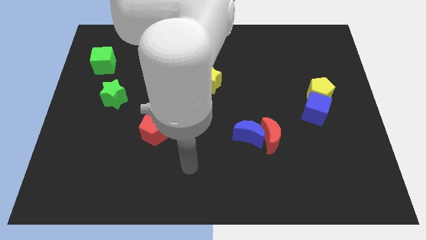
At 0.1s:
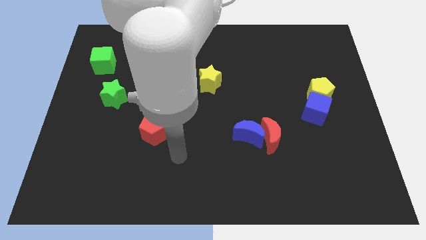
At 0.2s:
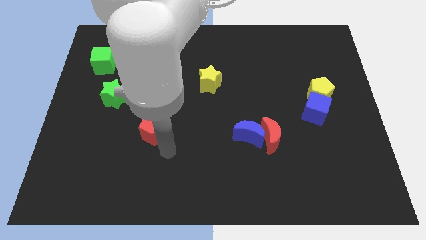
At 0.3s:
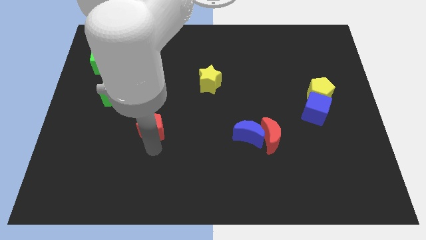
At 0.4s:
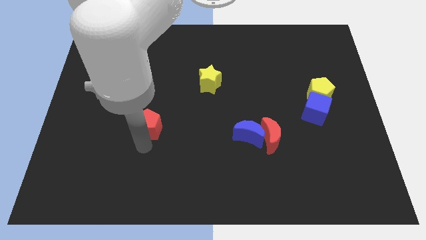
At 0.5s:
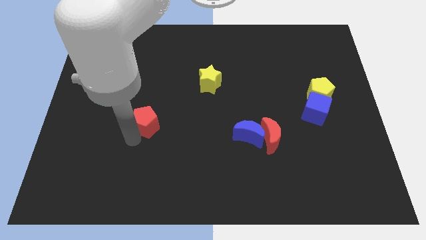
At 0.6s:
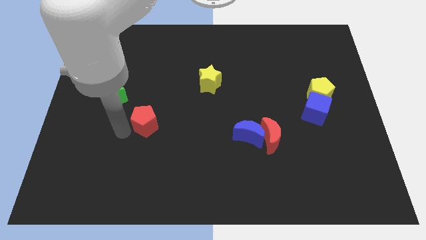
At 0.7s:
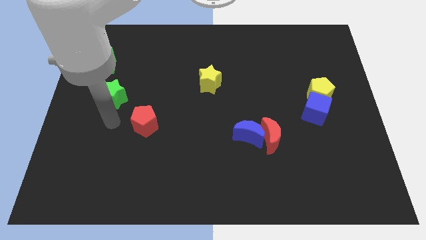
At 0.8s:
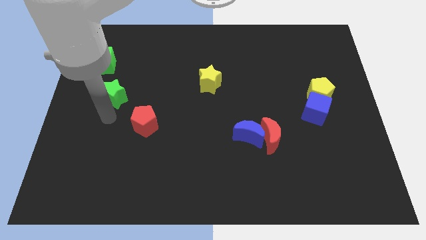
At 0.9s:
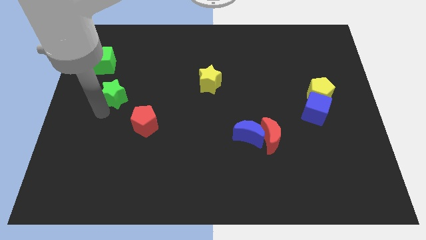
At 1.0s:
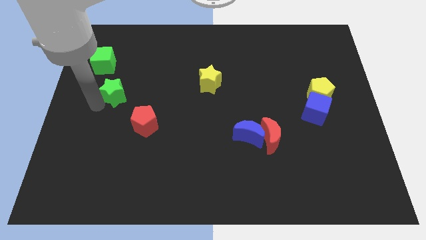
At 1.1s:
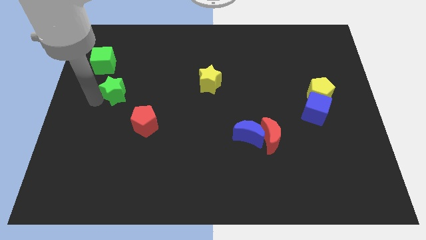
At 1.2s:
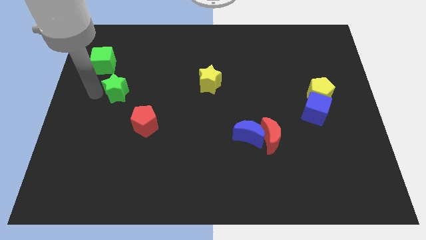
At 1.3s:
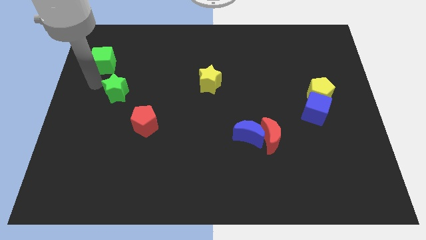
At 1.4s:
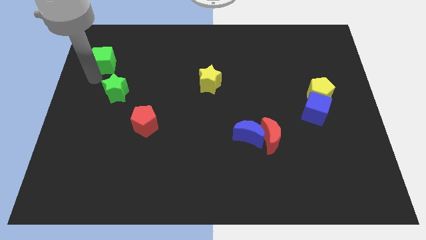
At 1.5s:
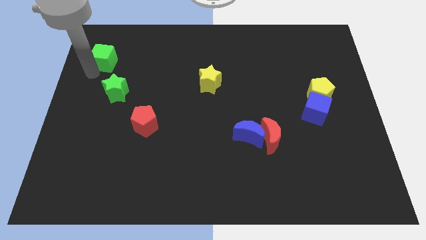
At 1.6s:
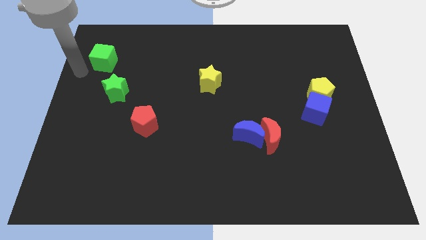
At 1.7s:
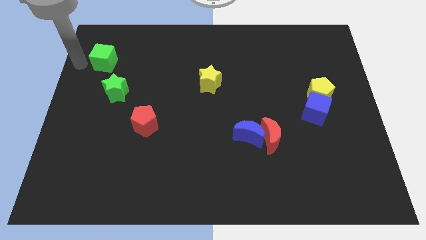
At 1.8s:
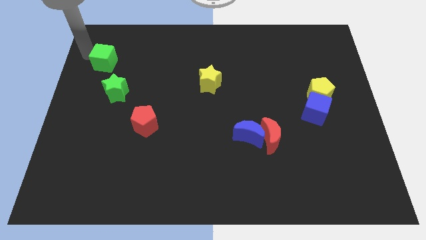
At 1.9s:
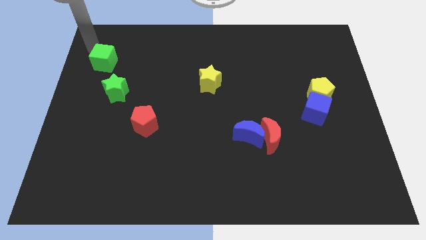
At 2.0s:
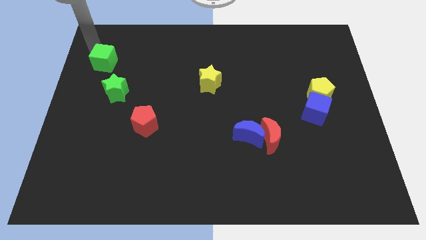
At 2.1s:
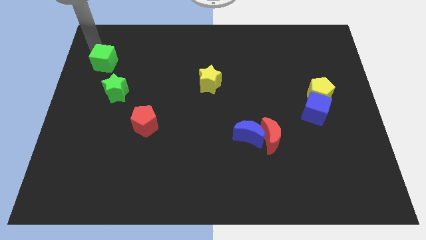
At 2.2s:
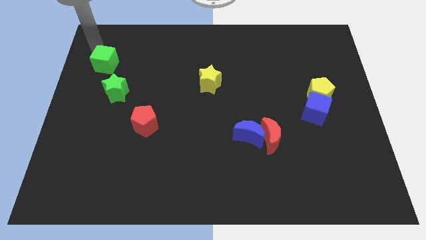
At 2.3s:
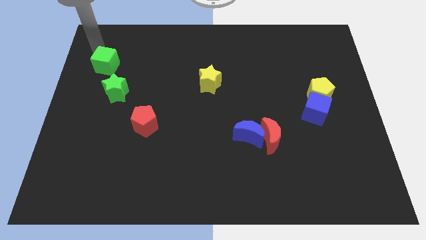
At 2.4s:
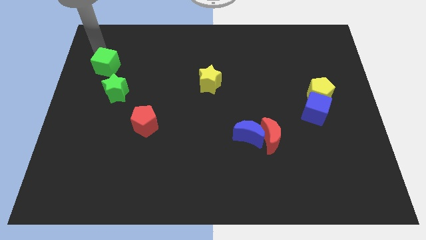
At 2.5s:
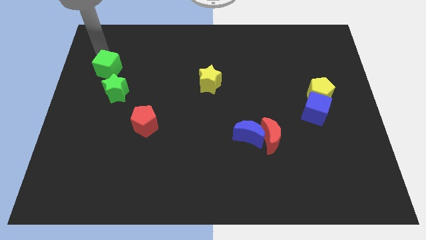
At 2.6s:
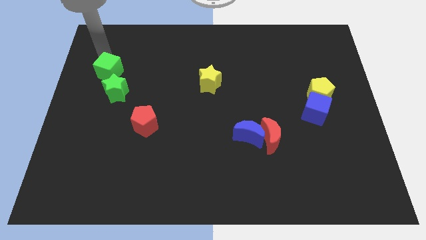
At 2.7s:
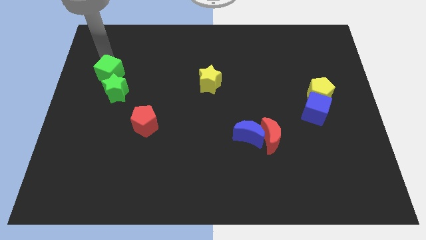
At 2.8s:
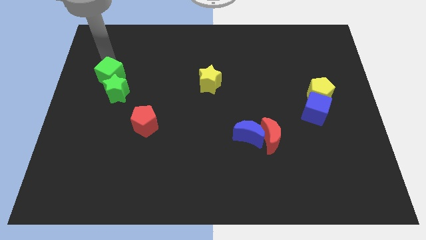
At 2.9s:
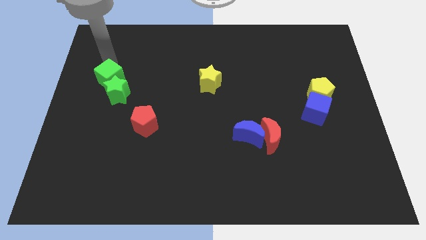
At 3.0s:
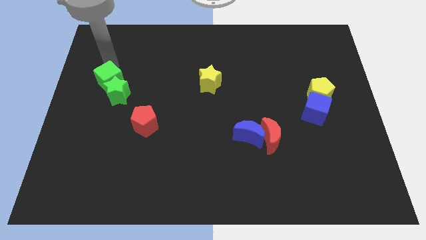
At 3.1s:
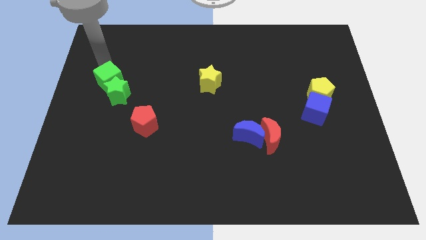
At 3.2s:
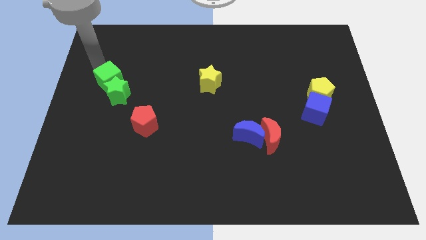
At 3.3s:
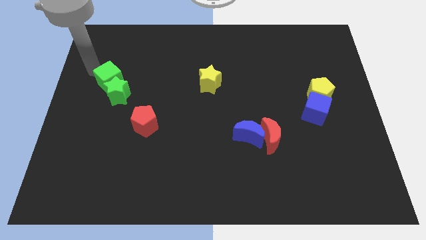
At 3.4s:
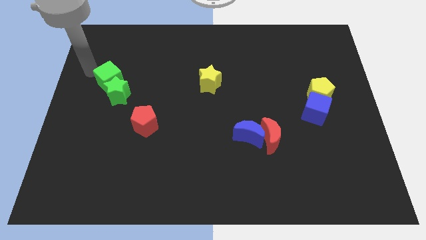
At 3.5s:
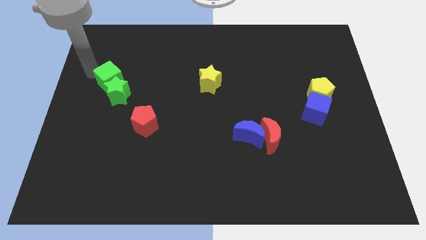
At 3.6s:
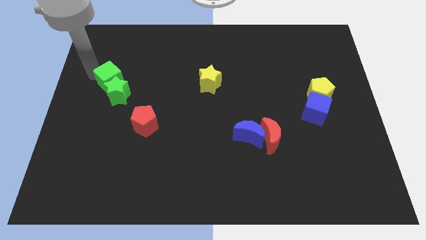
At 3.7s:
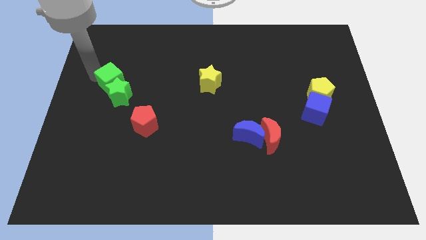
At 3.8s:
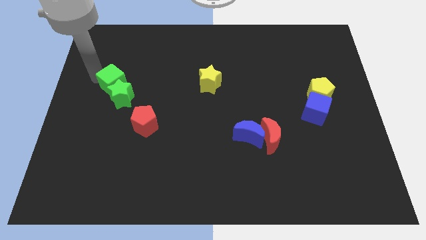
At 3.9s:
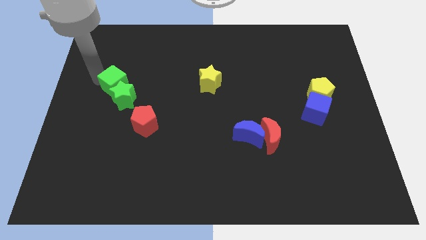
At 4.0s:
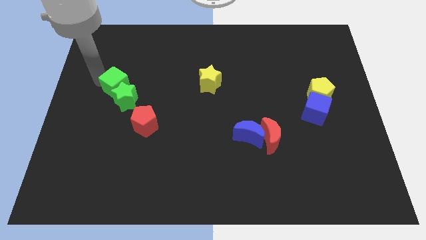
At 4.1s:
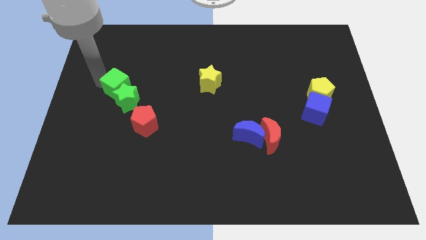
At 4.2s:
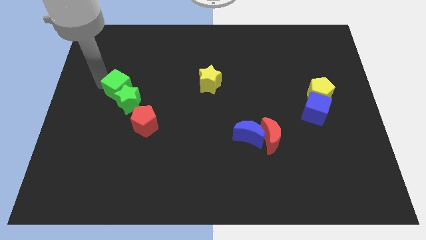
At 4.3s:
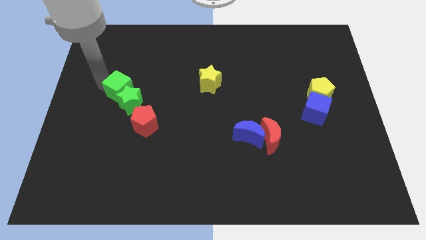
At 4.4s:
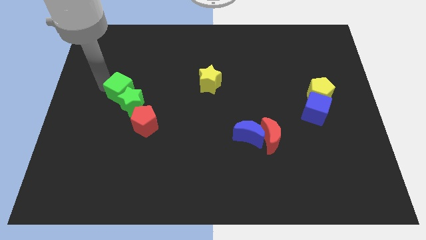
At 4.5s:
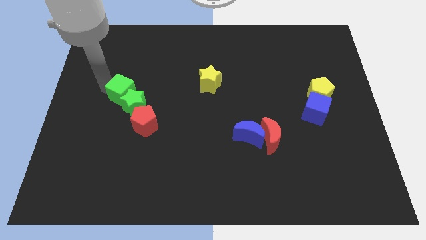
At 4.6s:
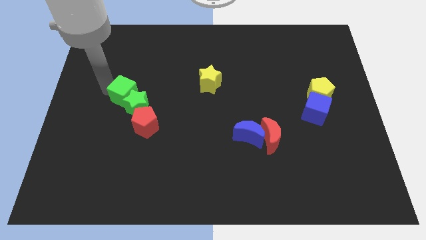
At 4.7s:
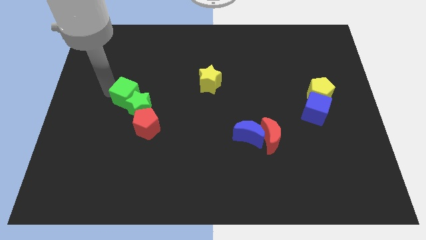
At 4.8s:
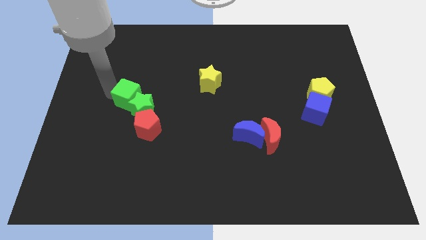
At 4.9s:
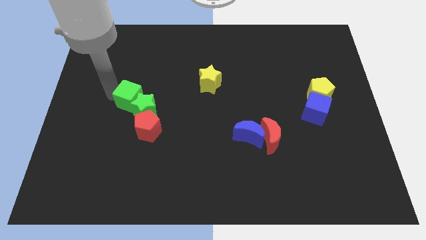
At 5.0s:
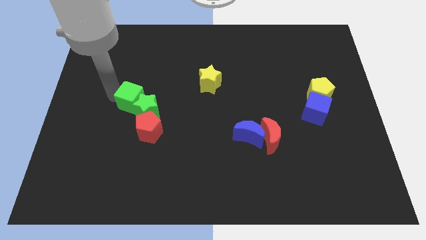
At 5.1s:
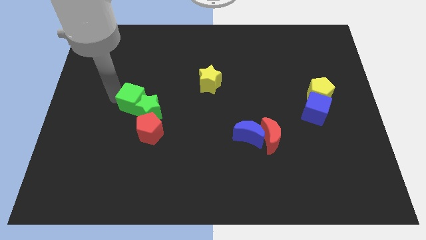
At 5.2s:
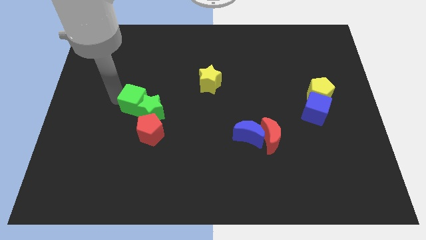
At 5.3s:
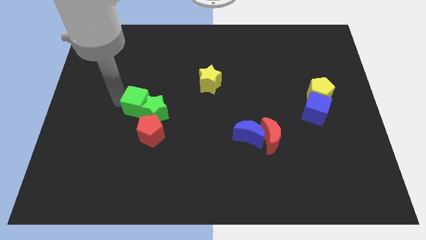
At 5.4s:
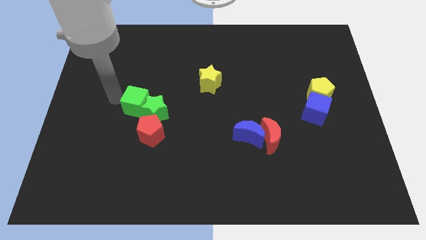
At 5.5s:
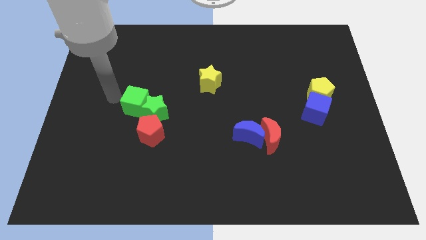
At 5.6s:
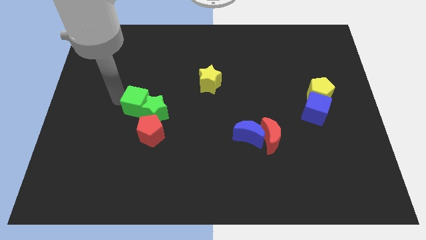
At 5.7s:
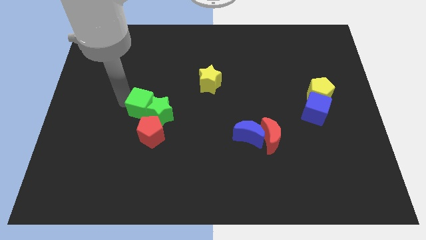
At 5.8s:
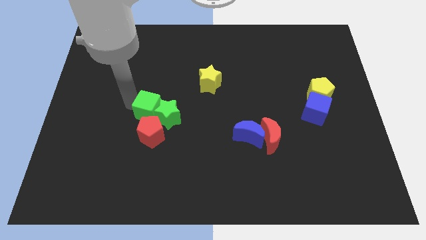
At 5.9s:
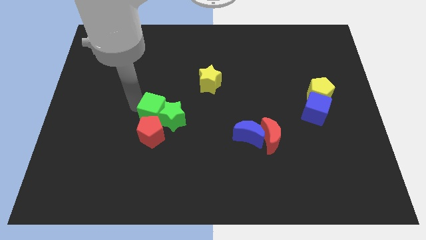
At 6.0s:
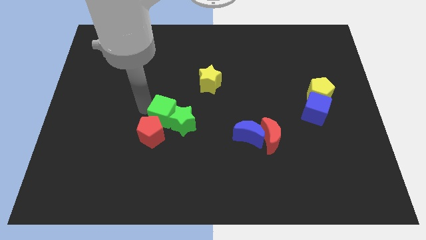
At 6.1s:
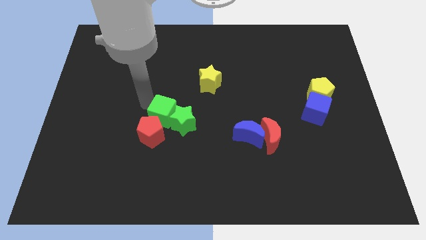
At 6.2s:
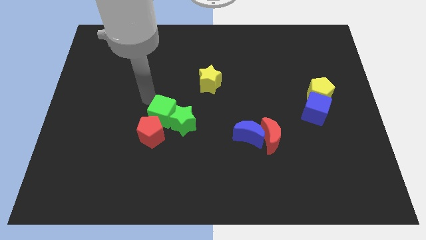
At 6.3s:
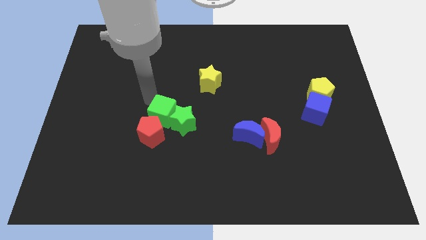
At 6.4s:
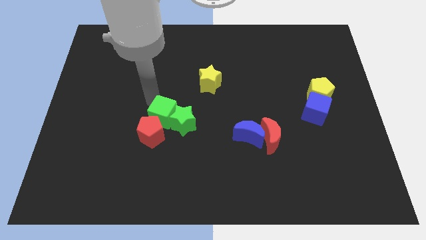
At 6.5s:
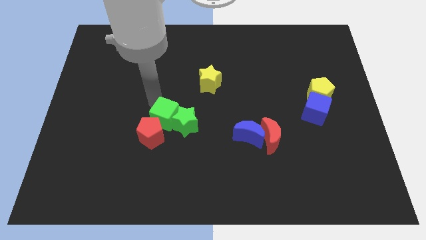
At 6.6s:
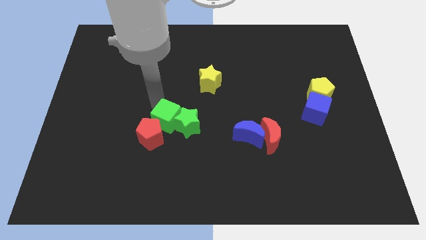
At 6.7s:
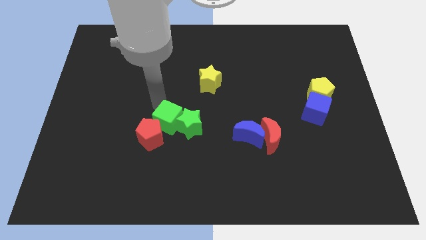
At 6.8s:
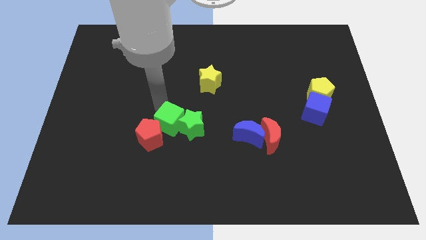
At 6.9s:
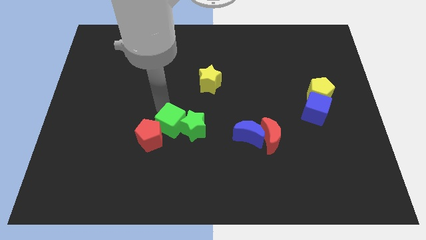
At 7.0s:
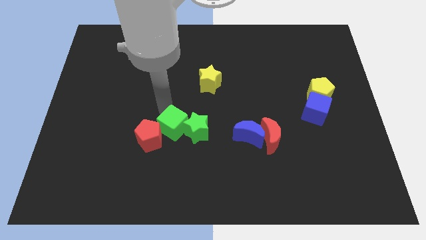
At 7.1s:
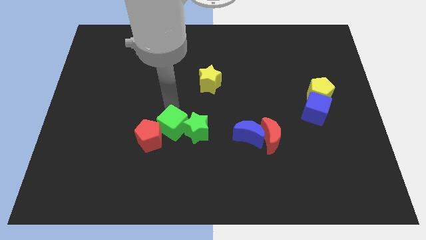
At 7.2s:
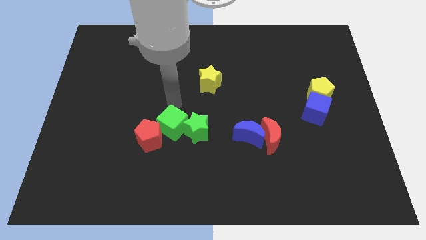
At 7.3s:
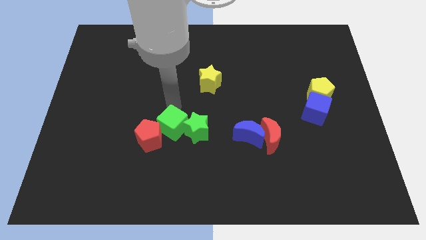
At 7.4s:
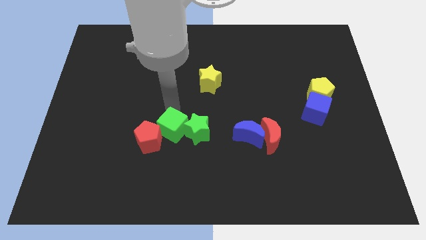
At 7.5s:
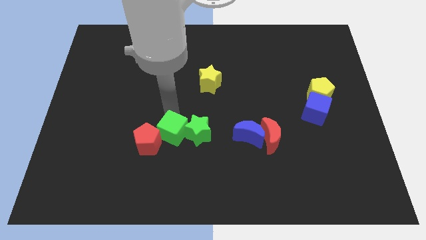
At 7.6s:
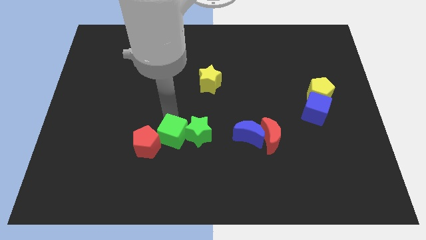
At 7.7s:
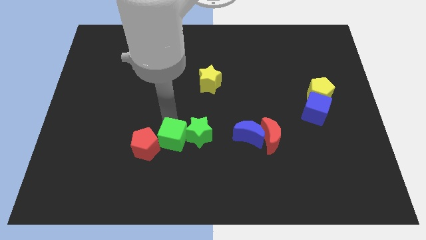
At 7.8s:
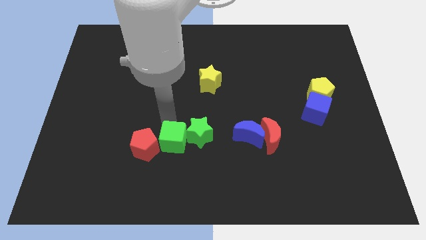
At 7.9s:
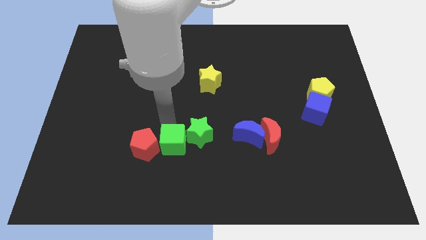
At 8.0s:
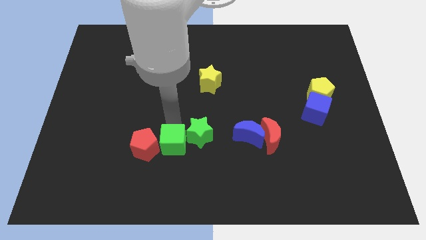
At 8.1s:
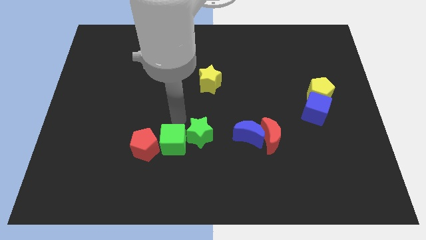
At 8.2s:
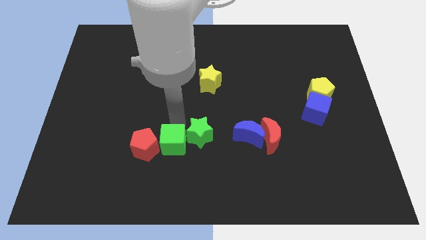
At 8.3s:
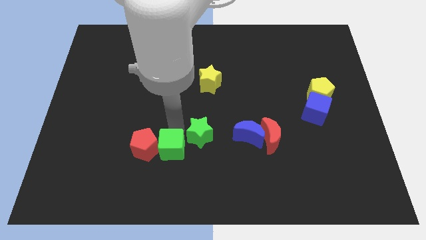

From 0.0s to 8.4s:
slide the green cube diagonally down and to the right of the red pentagon
